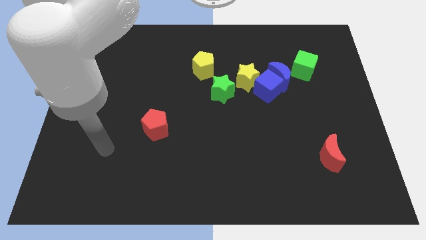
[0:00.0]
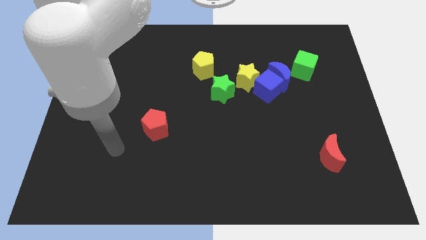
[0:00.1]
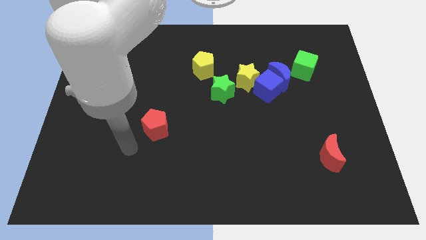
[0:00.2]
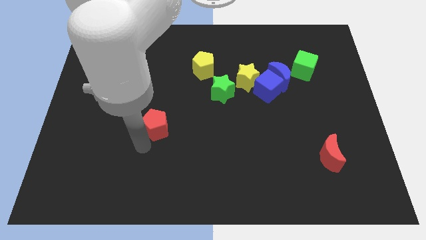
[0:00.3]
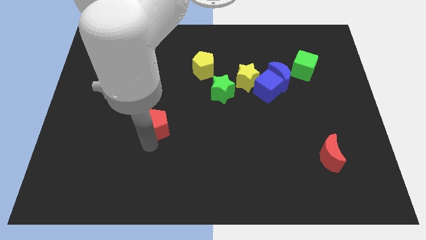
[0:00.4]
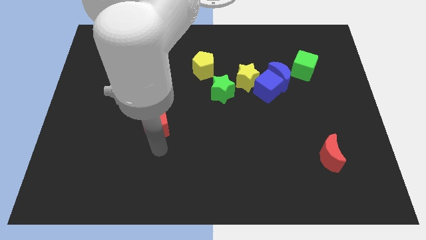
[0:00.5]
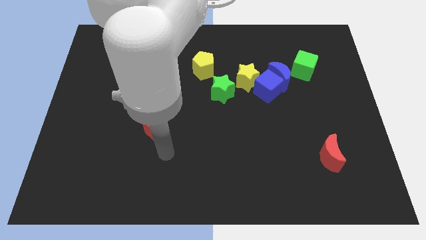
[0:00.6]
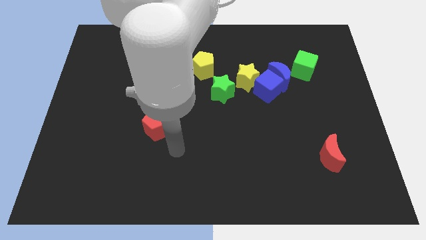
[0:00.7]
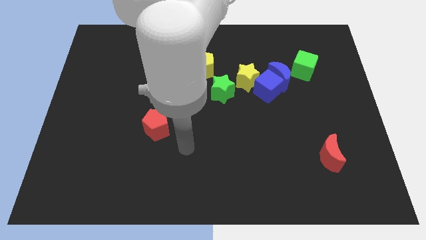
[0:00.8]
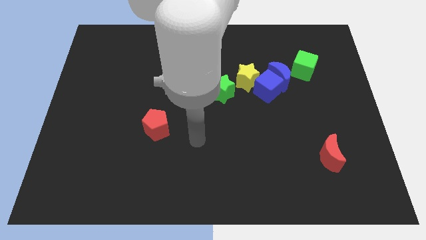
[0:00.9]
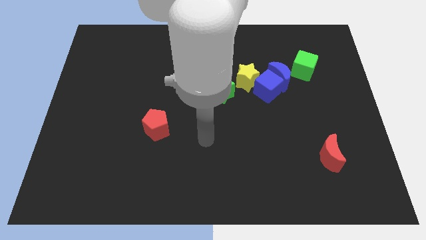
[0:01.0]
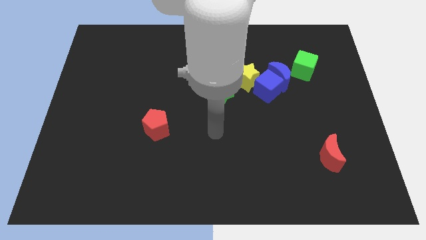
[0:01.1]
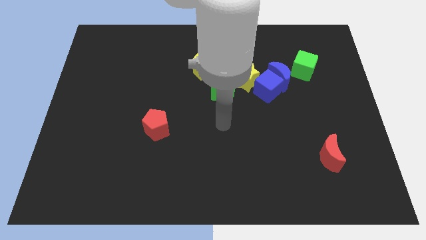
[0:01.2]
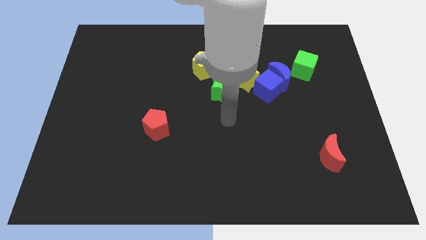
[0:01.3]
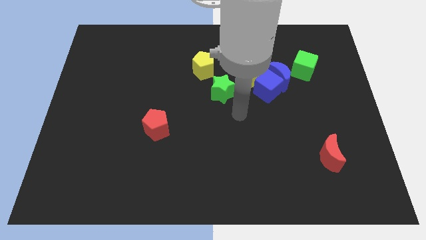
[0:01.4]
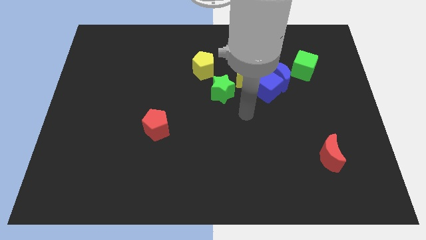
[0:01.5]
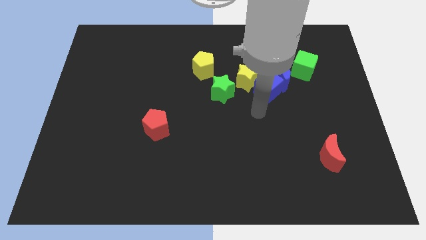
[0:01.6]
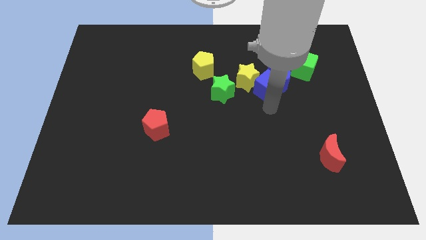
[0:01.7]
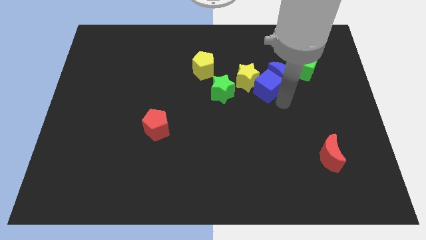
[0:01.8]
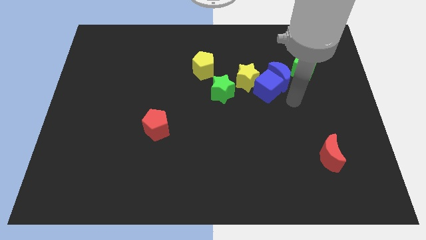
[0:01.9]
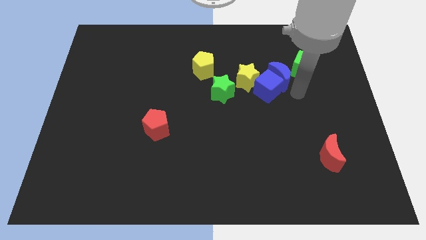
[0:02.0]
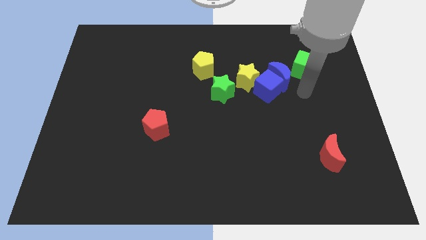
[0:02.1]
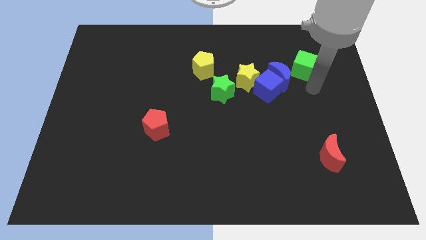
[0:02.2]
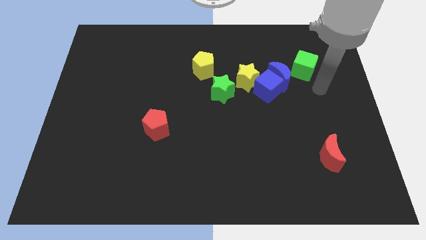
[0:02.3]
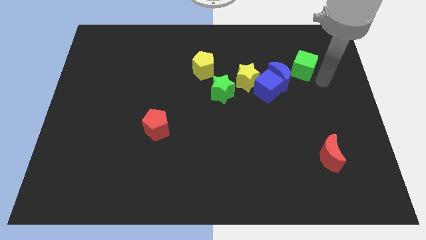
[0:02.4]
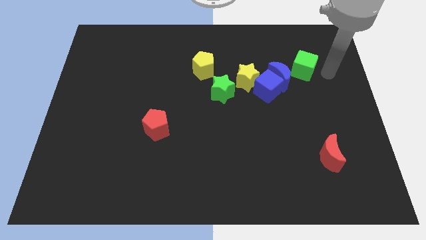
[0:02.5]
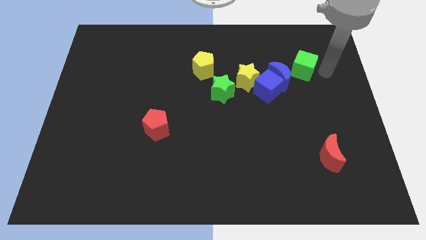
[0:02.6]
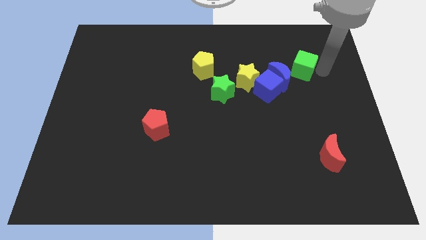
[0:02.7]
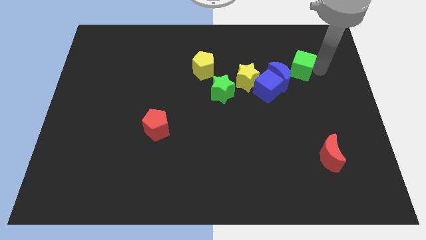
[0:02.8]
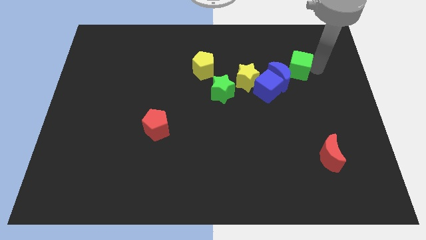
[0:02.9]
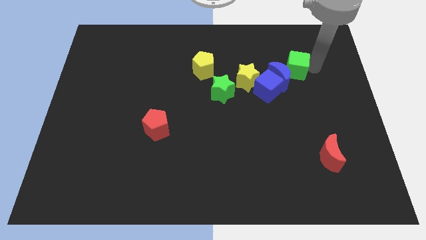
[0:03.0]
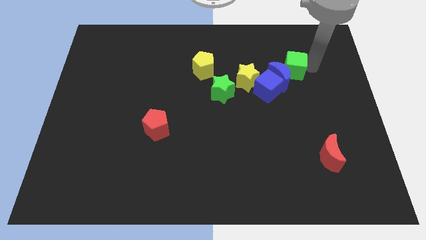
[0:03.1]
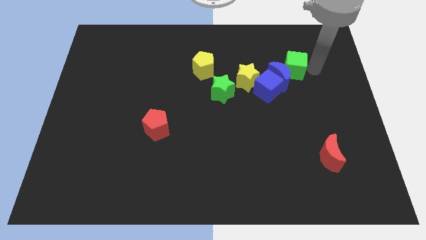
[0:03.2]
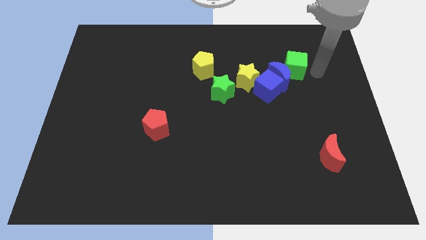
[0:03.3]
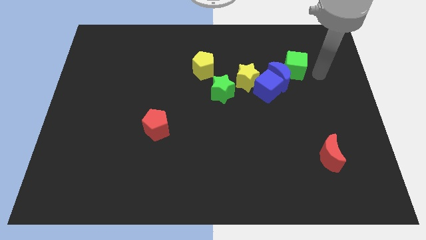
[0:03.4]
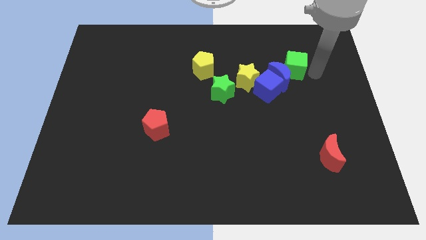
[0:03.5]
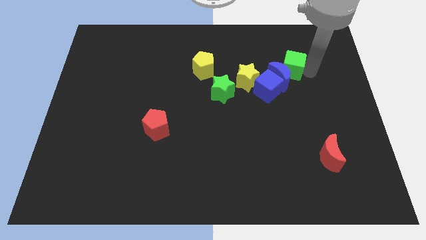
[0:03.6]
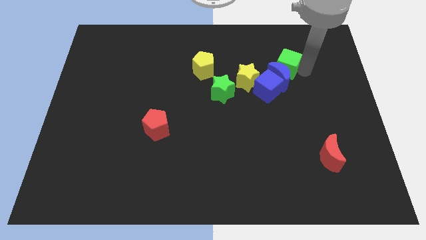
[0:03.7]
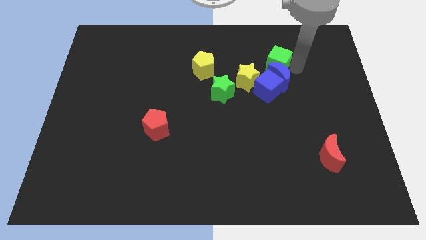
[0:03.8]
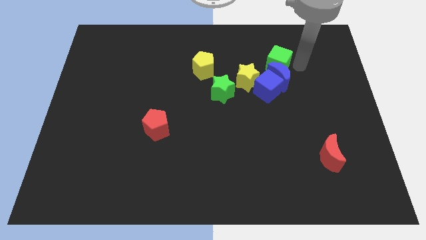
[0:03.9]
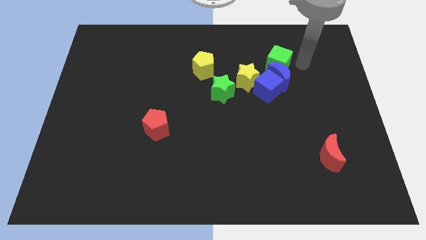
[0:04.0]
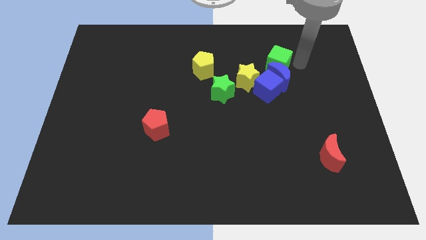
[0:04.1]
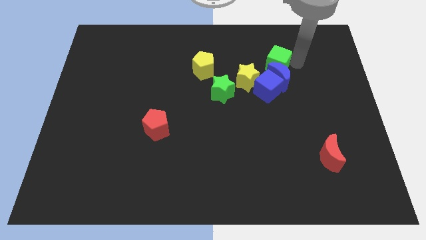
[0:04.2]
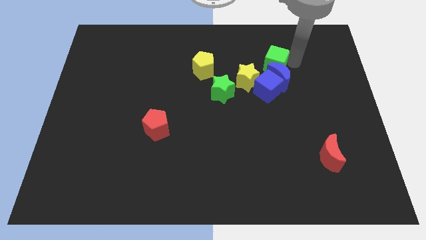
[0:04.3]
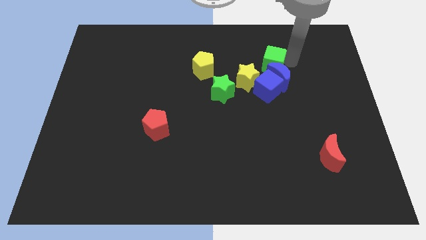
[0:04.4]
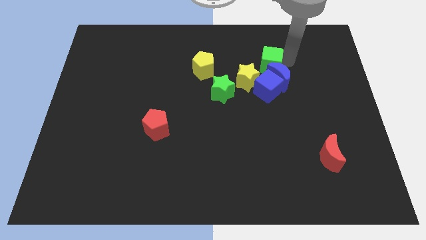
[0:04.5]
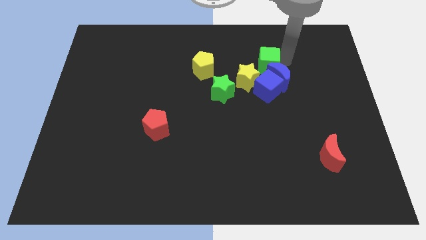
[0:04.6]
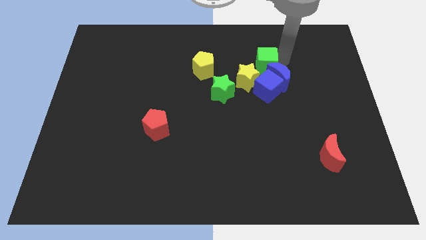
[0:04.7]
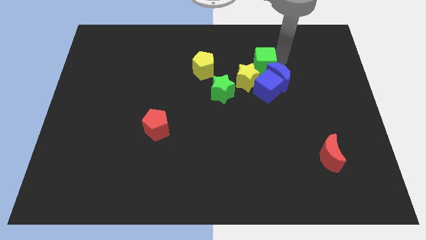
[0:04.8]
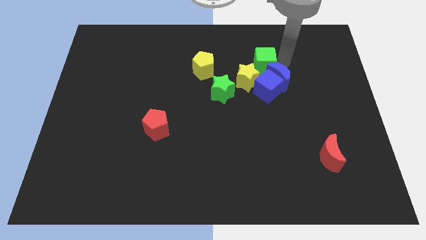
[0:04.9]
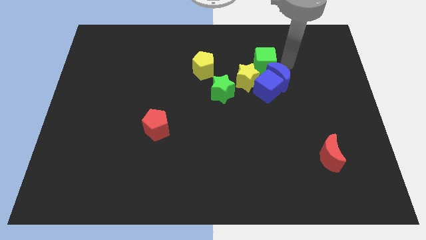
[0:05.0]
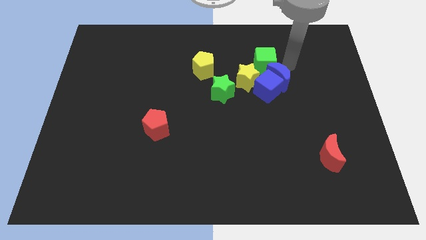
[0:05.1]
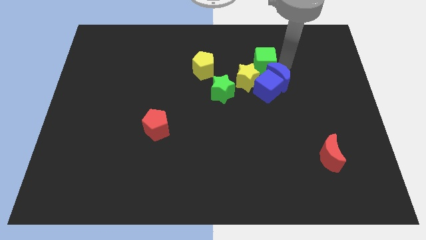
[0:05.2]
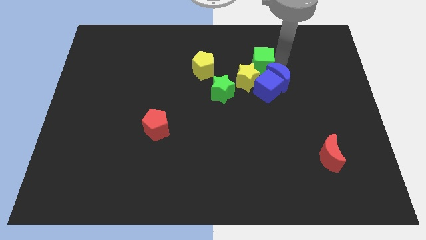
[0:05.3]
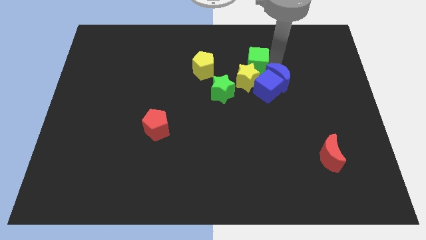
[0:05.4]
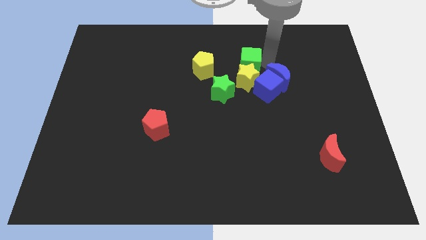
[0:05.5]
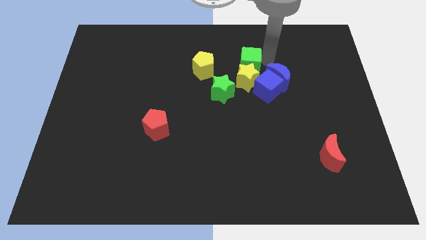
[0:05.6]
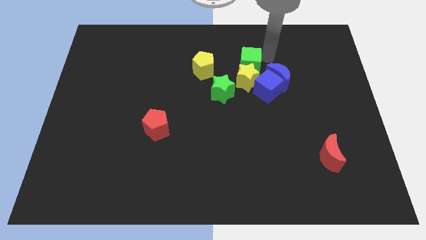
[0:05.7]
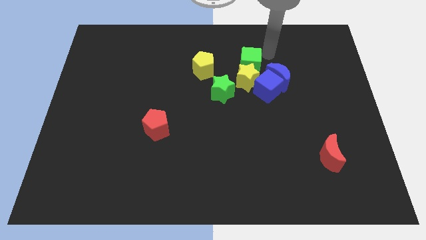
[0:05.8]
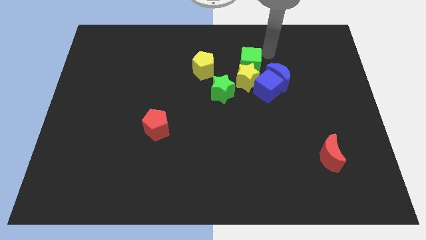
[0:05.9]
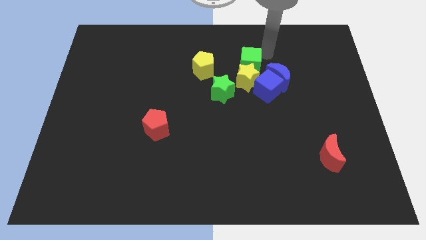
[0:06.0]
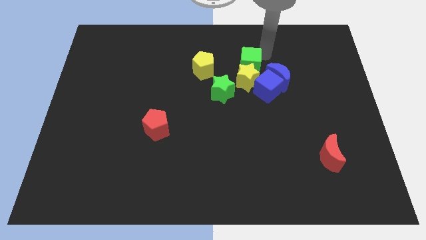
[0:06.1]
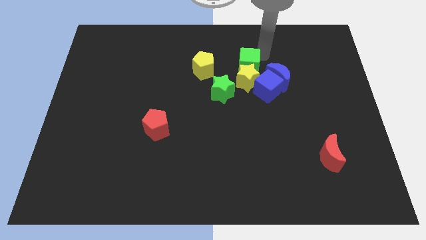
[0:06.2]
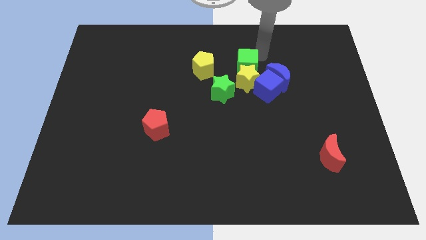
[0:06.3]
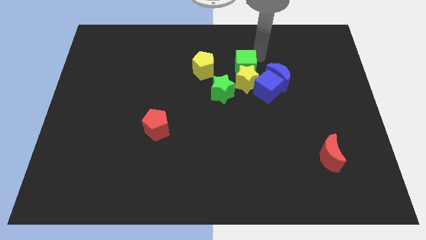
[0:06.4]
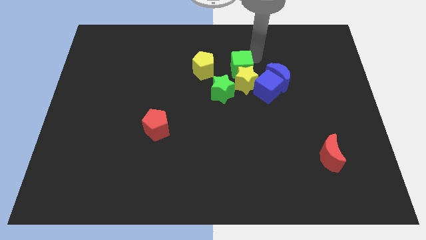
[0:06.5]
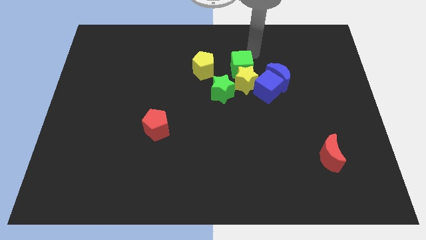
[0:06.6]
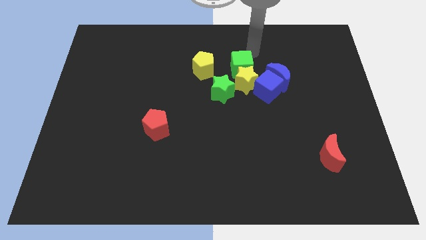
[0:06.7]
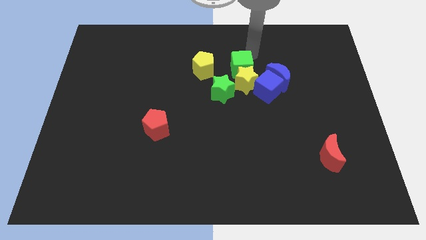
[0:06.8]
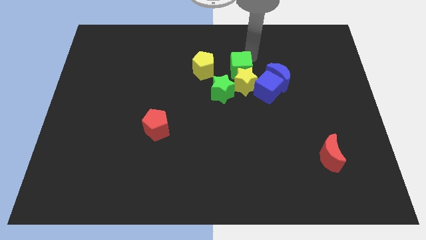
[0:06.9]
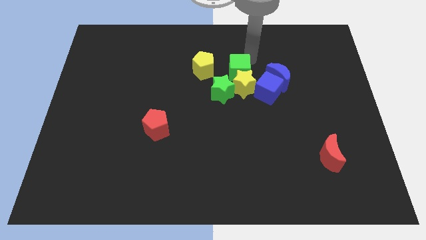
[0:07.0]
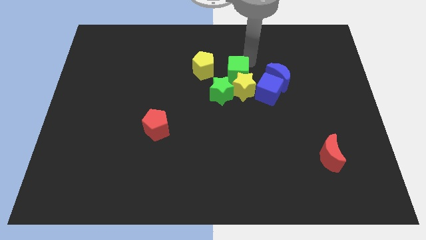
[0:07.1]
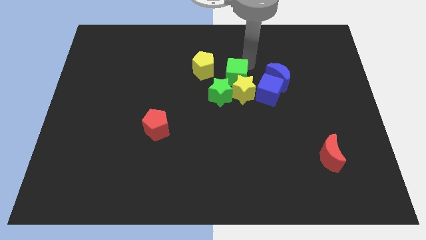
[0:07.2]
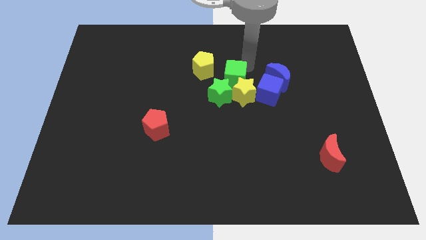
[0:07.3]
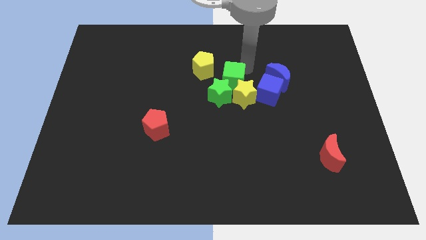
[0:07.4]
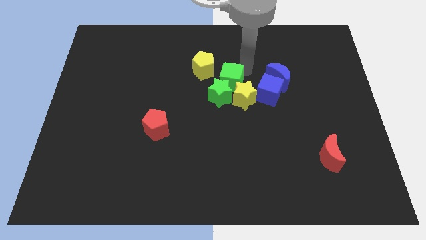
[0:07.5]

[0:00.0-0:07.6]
move the green cube next to the green star
